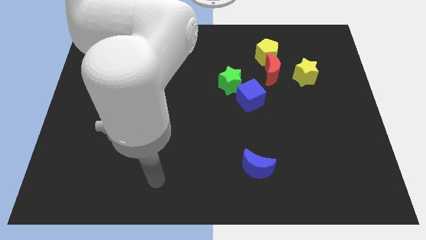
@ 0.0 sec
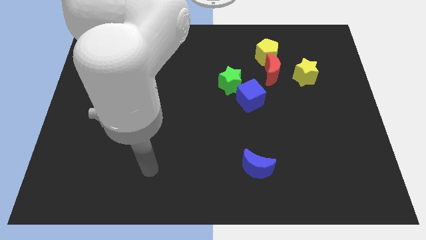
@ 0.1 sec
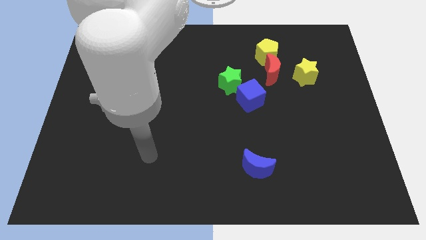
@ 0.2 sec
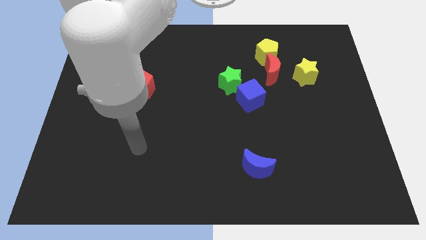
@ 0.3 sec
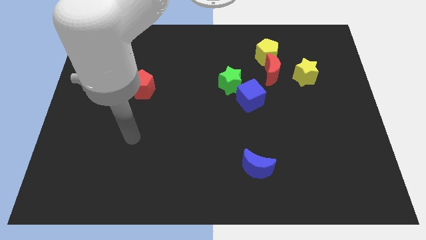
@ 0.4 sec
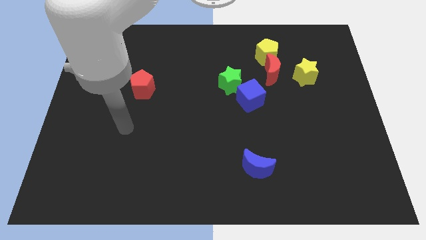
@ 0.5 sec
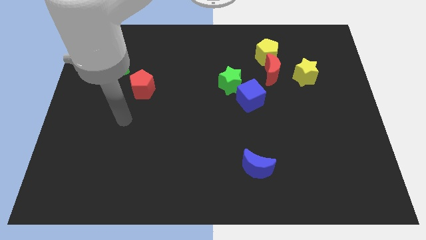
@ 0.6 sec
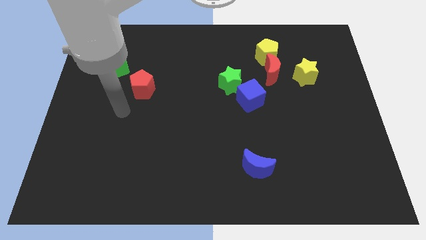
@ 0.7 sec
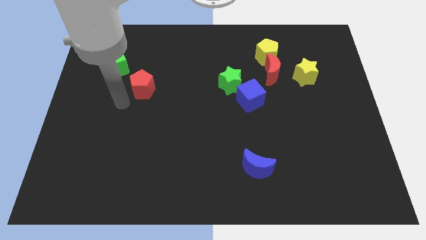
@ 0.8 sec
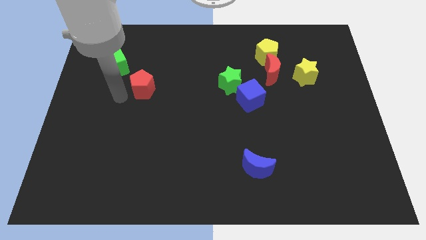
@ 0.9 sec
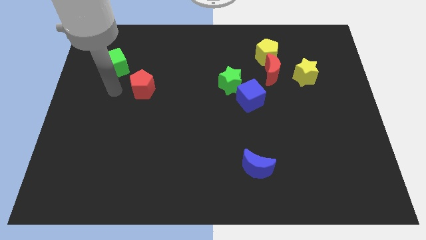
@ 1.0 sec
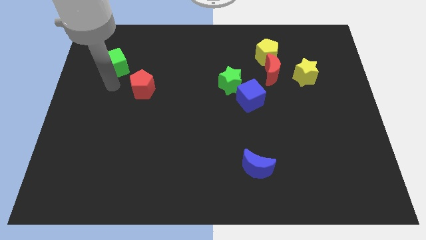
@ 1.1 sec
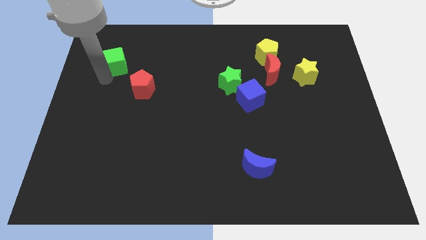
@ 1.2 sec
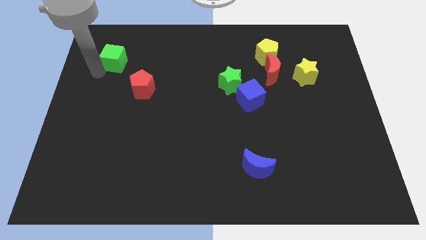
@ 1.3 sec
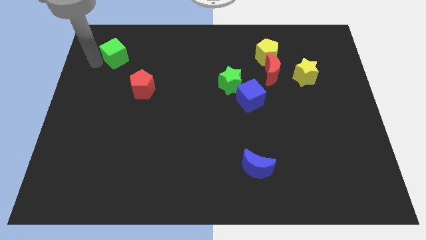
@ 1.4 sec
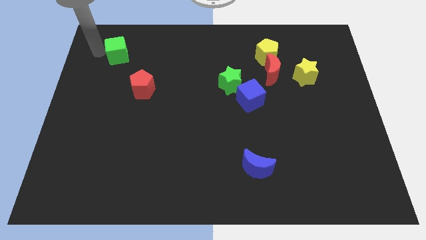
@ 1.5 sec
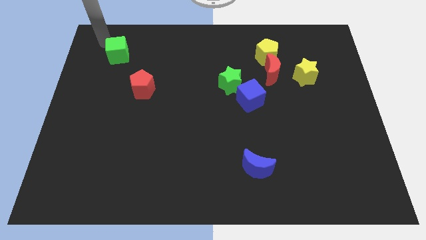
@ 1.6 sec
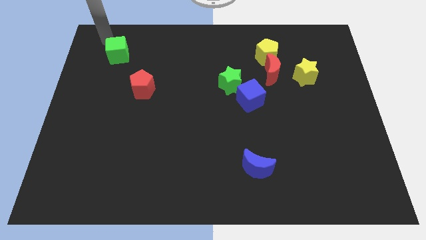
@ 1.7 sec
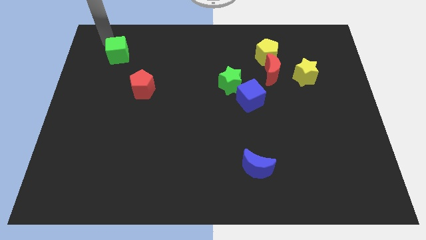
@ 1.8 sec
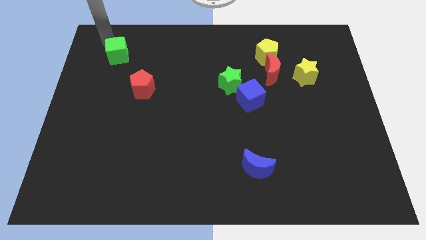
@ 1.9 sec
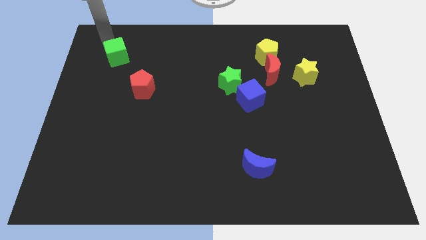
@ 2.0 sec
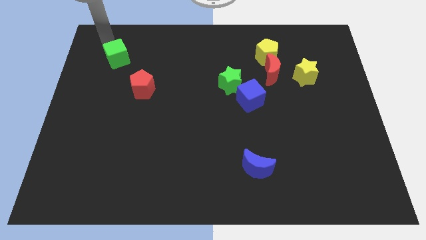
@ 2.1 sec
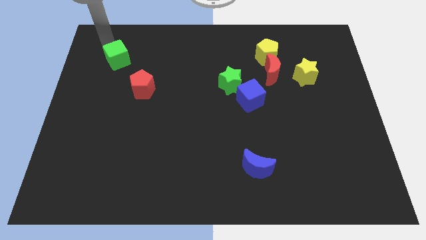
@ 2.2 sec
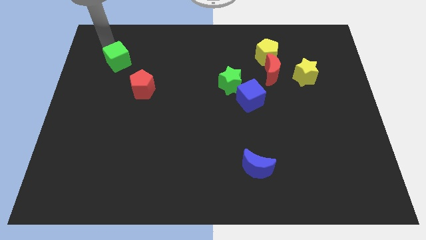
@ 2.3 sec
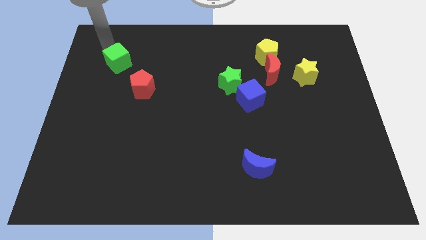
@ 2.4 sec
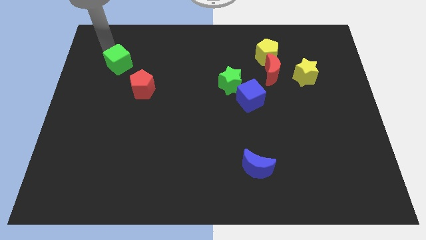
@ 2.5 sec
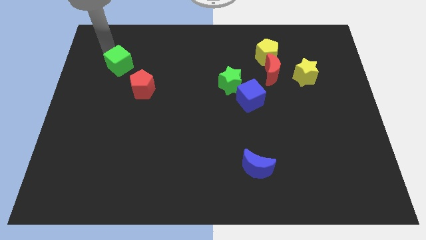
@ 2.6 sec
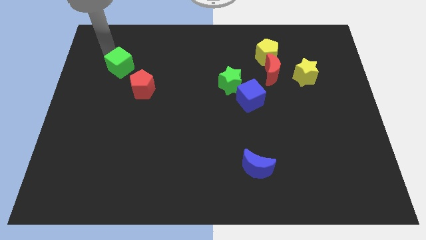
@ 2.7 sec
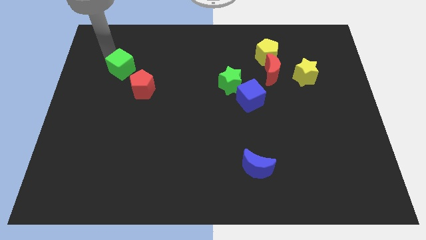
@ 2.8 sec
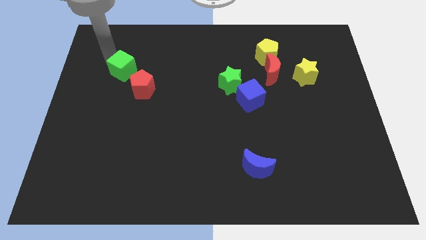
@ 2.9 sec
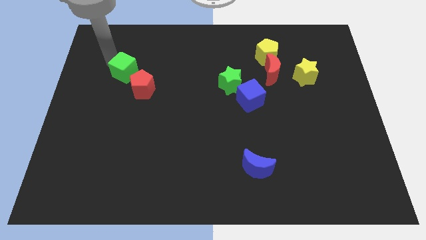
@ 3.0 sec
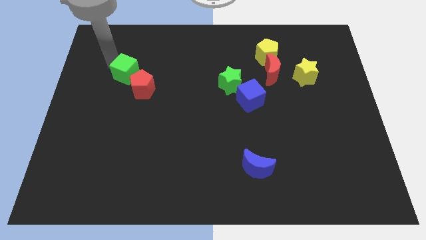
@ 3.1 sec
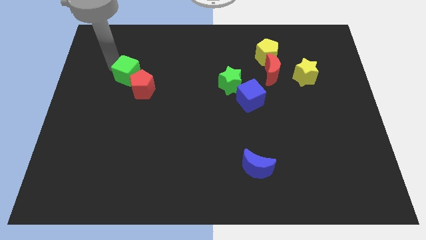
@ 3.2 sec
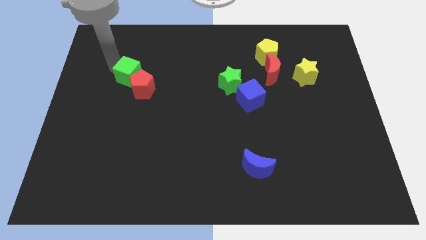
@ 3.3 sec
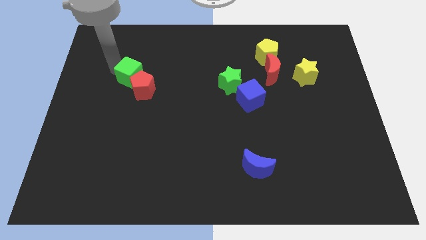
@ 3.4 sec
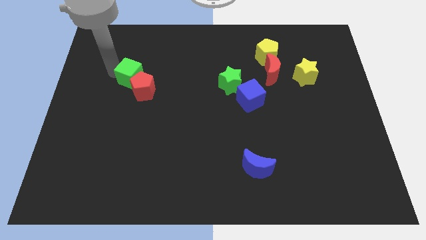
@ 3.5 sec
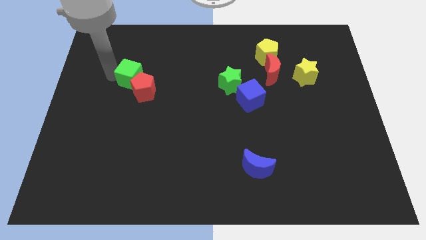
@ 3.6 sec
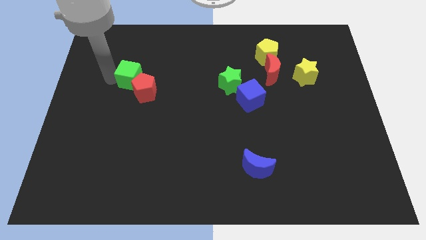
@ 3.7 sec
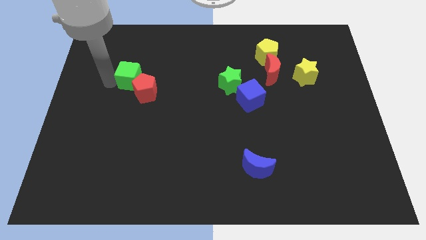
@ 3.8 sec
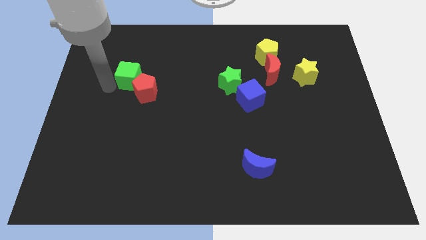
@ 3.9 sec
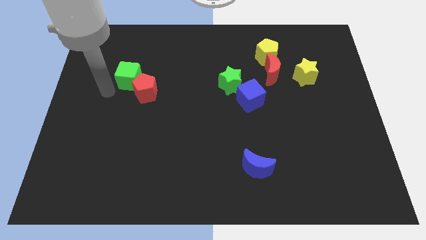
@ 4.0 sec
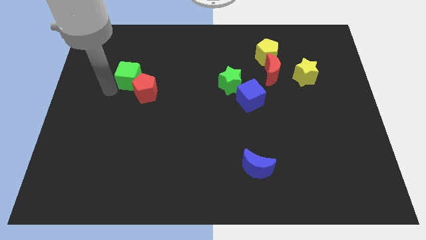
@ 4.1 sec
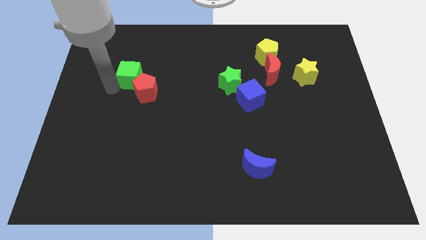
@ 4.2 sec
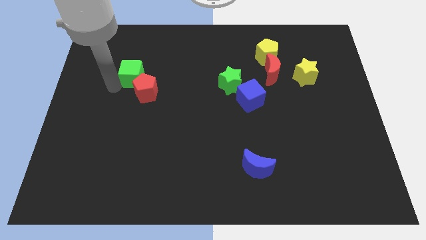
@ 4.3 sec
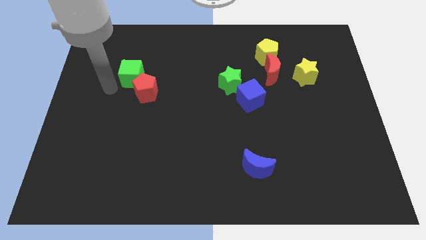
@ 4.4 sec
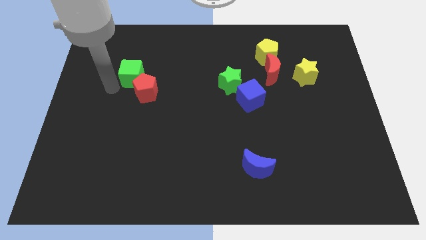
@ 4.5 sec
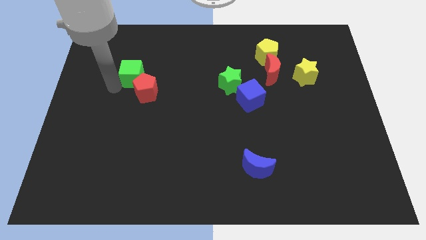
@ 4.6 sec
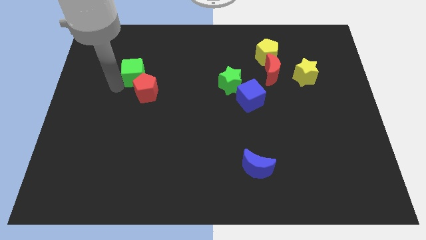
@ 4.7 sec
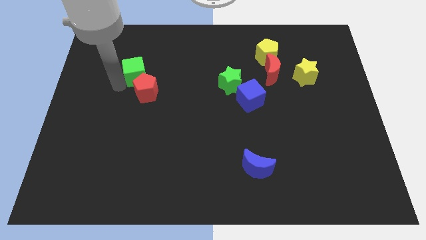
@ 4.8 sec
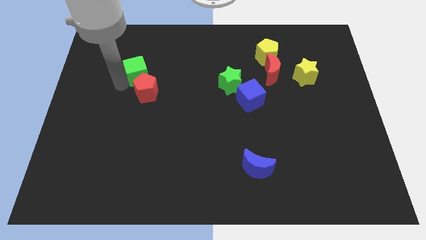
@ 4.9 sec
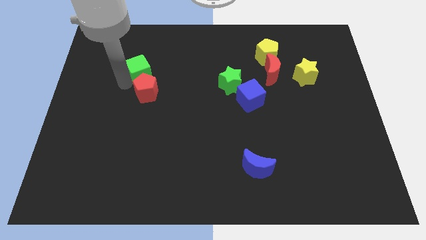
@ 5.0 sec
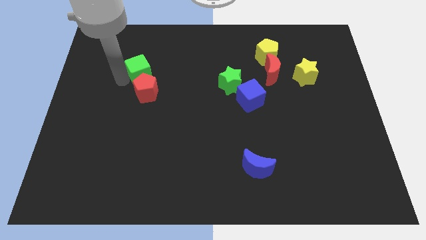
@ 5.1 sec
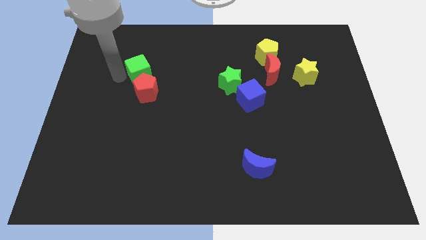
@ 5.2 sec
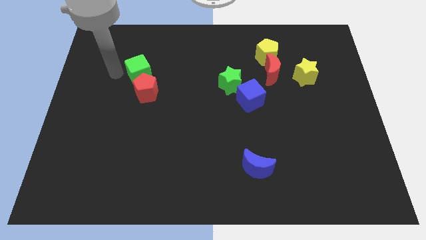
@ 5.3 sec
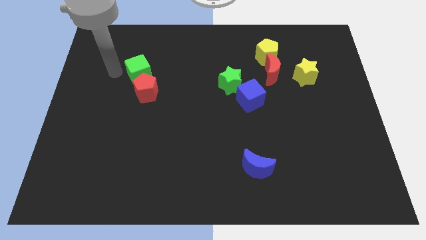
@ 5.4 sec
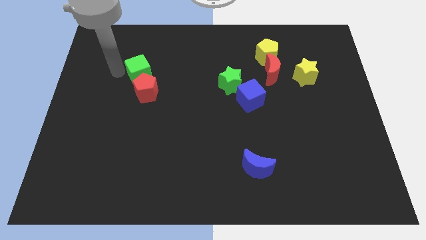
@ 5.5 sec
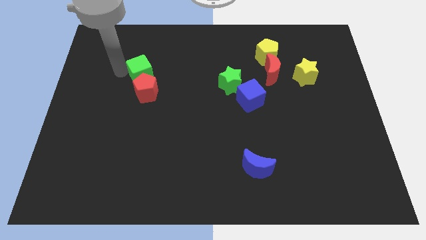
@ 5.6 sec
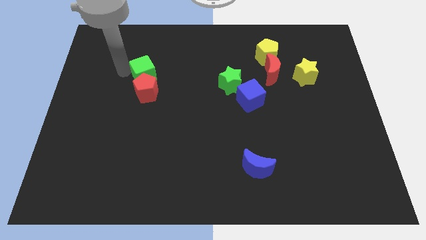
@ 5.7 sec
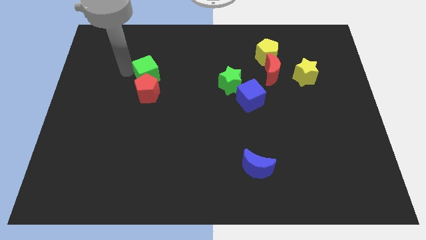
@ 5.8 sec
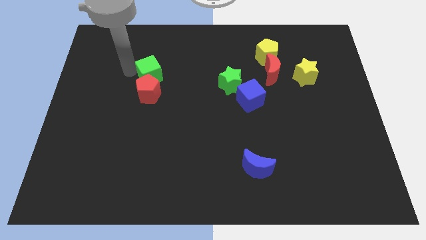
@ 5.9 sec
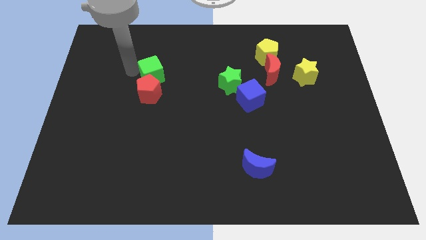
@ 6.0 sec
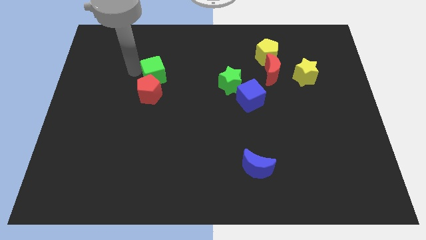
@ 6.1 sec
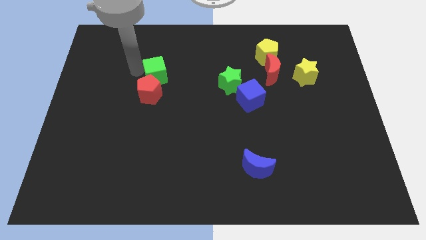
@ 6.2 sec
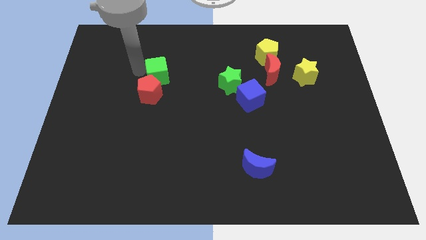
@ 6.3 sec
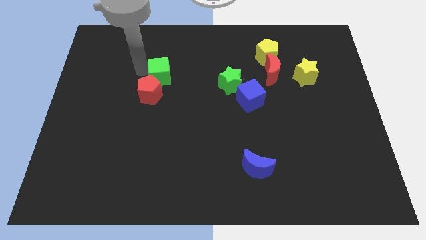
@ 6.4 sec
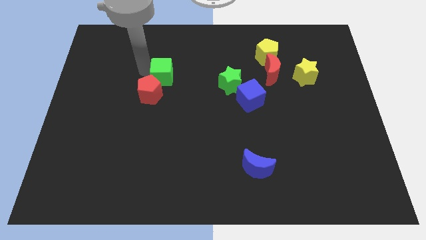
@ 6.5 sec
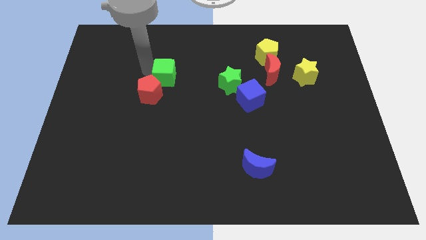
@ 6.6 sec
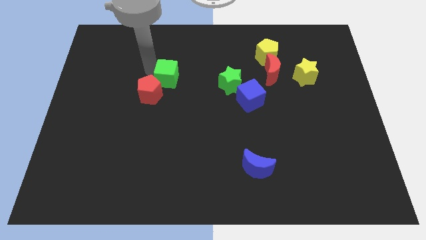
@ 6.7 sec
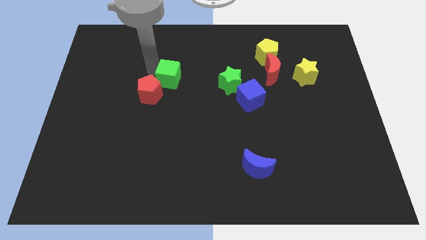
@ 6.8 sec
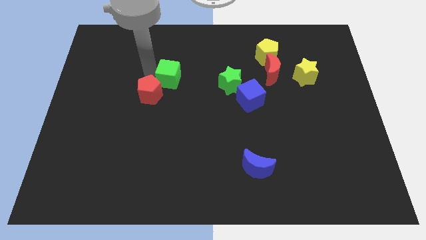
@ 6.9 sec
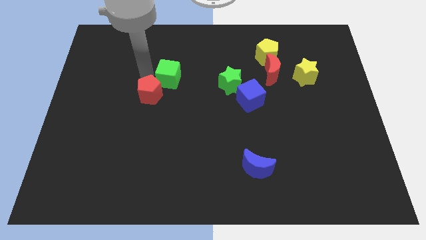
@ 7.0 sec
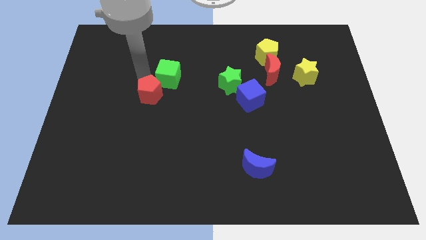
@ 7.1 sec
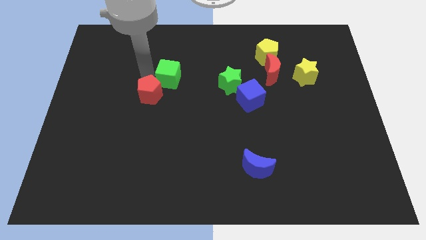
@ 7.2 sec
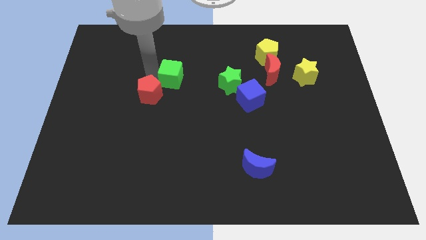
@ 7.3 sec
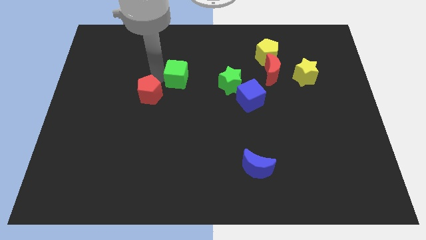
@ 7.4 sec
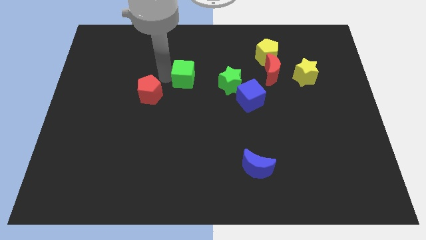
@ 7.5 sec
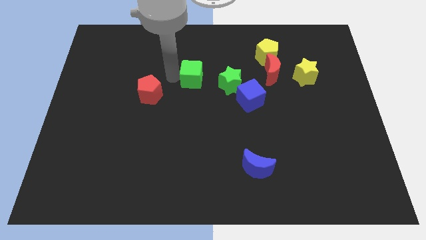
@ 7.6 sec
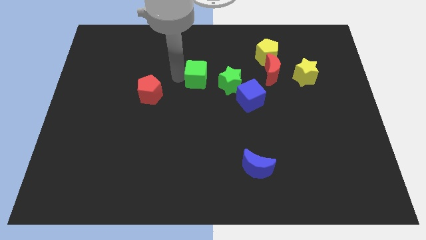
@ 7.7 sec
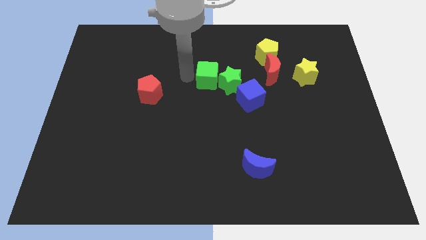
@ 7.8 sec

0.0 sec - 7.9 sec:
move the green cube towards the green star
